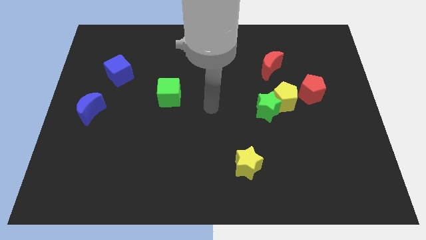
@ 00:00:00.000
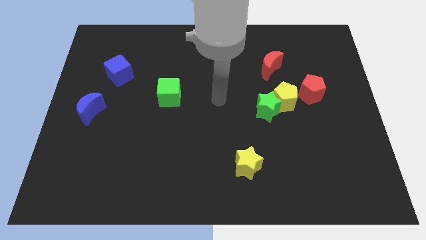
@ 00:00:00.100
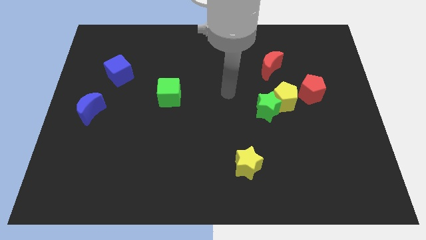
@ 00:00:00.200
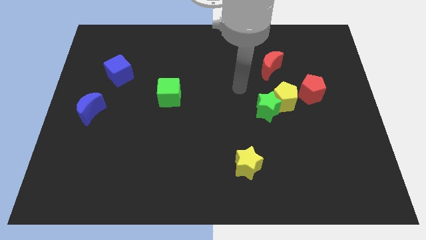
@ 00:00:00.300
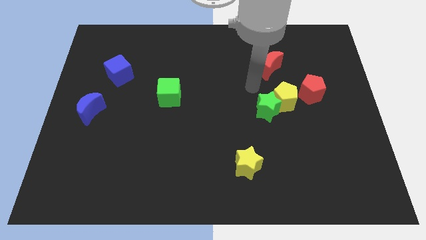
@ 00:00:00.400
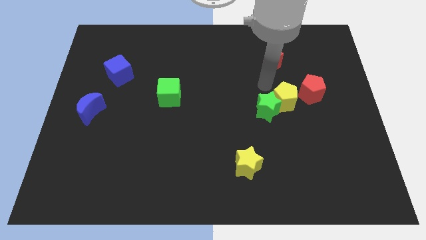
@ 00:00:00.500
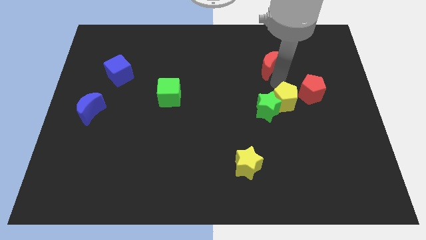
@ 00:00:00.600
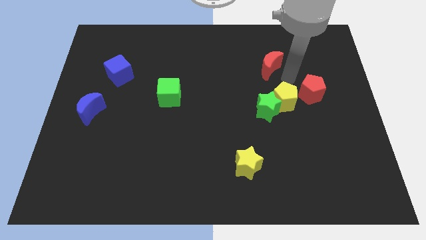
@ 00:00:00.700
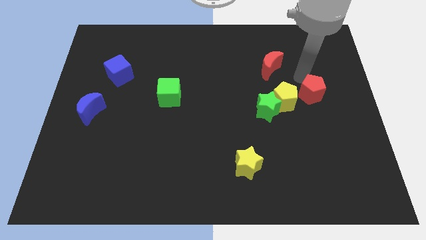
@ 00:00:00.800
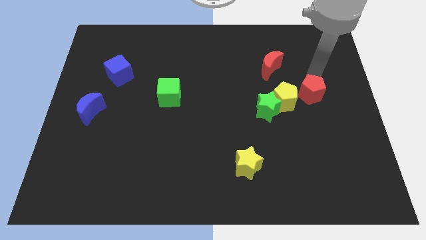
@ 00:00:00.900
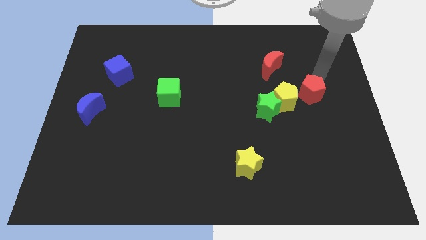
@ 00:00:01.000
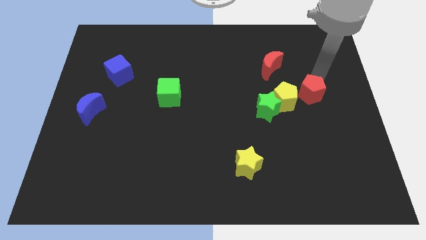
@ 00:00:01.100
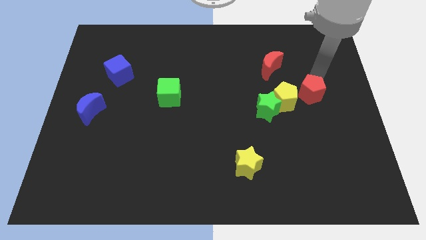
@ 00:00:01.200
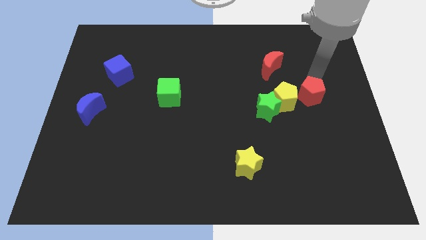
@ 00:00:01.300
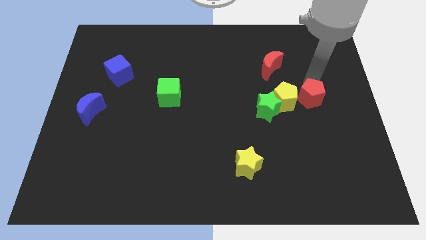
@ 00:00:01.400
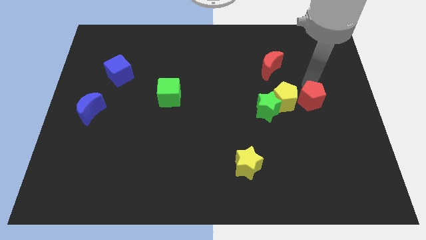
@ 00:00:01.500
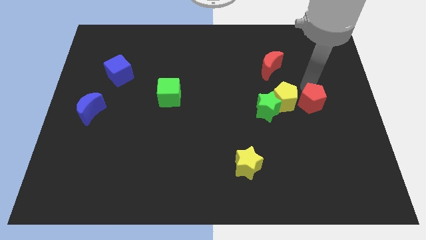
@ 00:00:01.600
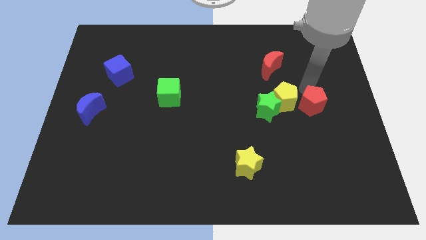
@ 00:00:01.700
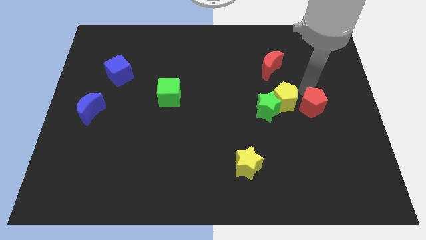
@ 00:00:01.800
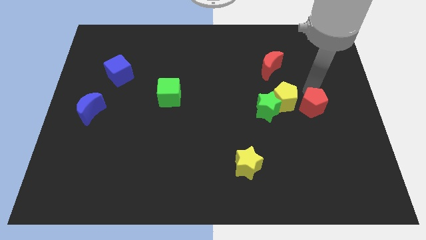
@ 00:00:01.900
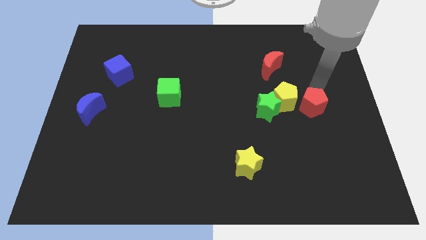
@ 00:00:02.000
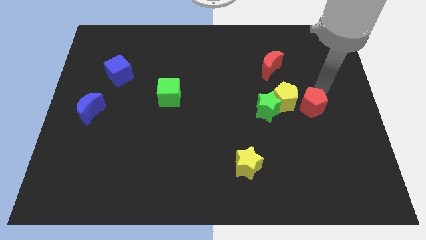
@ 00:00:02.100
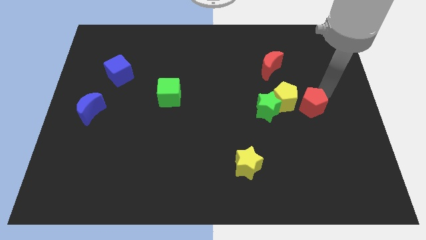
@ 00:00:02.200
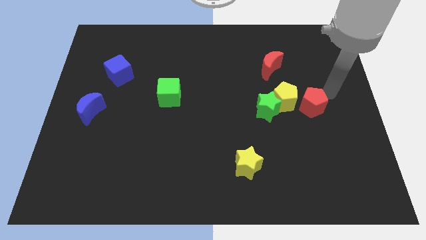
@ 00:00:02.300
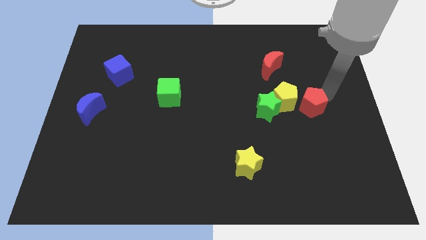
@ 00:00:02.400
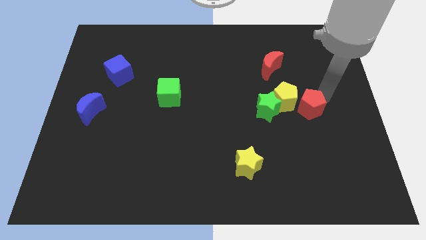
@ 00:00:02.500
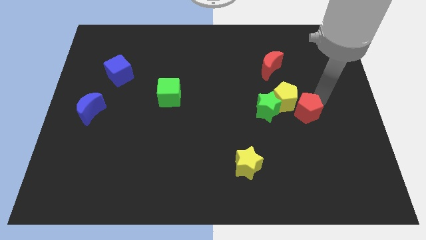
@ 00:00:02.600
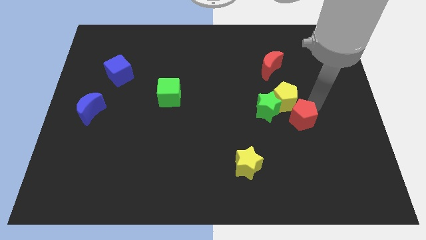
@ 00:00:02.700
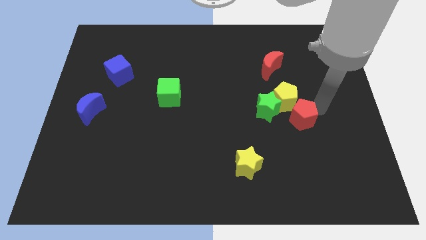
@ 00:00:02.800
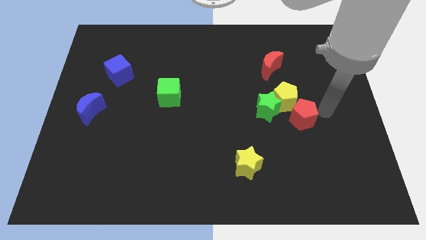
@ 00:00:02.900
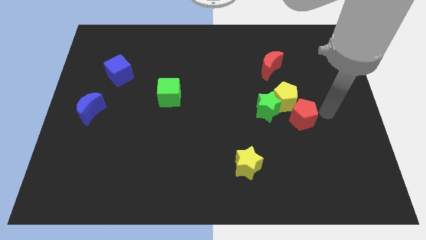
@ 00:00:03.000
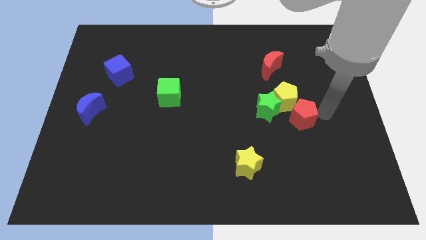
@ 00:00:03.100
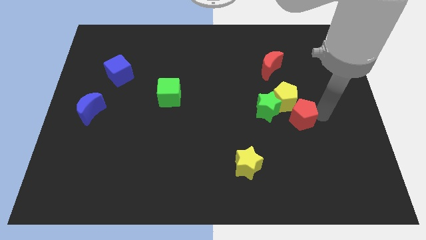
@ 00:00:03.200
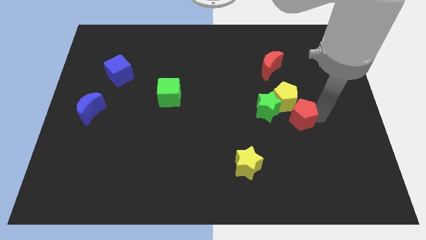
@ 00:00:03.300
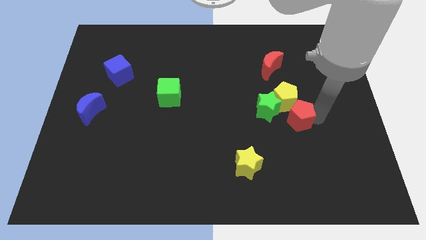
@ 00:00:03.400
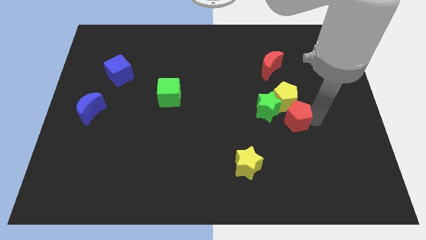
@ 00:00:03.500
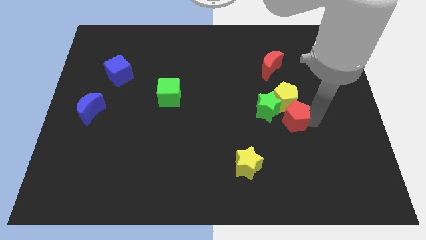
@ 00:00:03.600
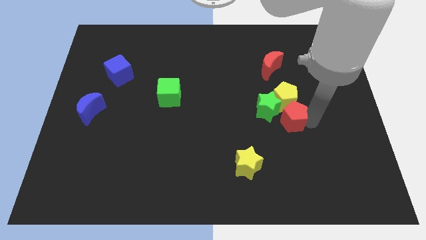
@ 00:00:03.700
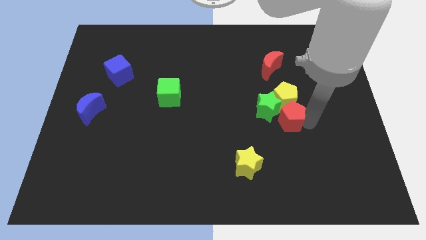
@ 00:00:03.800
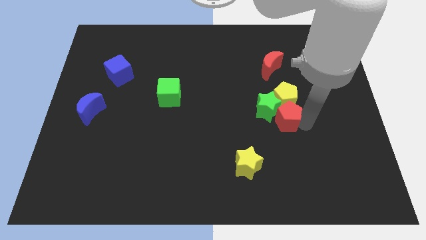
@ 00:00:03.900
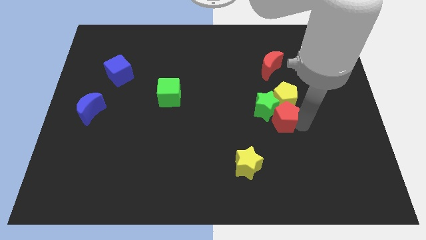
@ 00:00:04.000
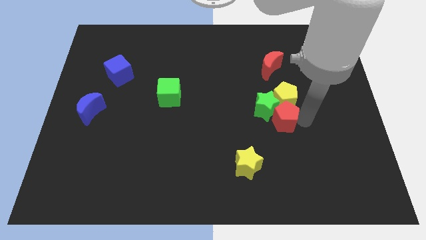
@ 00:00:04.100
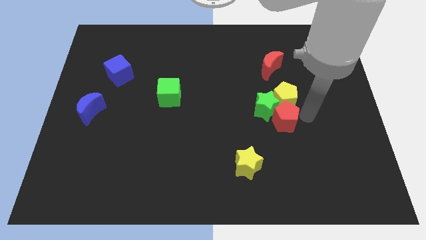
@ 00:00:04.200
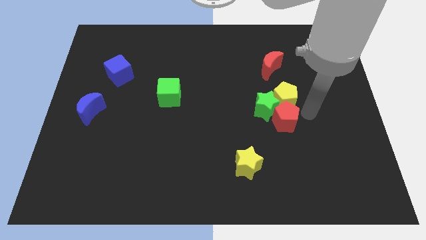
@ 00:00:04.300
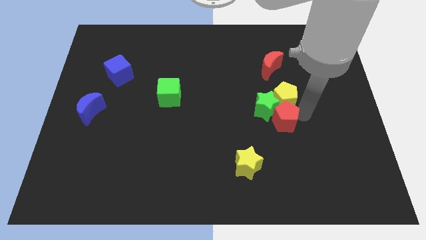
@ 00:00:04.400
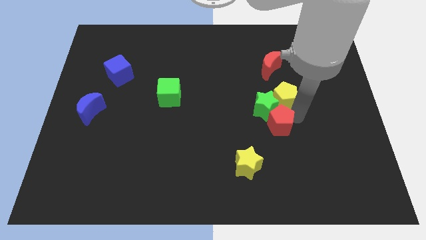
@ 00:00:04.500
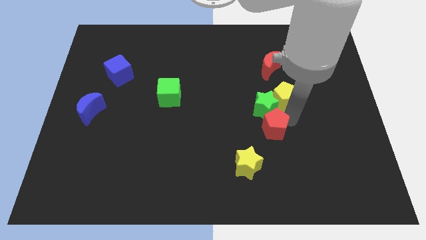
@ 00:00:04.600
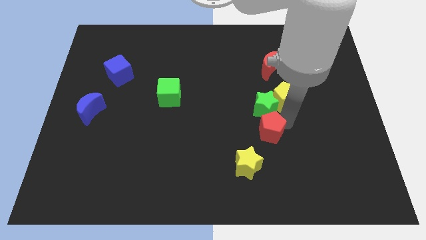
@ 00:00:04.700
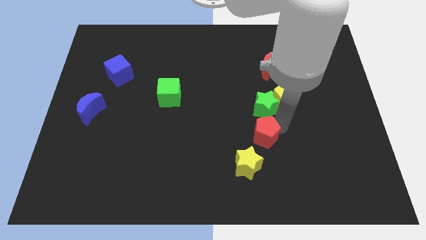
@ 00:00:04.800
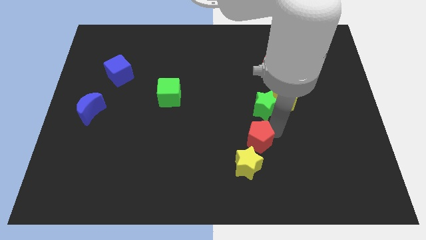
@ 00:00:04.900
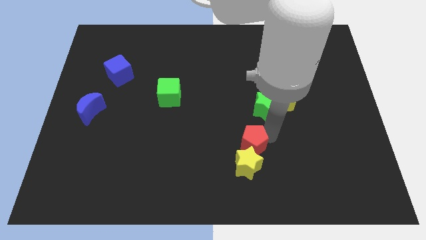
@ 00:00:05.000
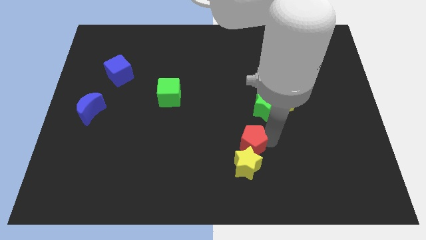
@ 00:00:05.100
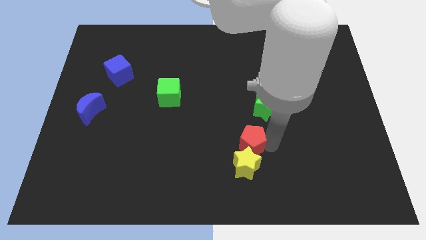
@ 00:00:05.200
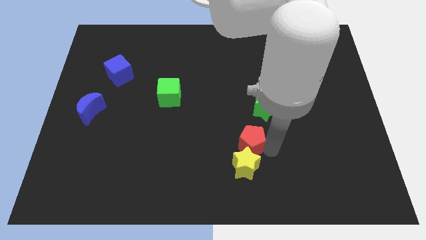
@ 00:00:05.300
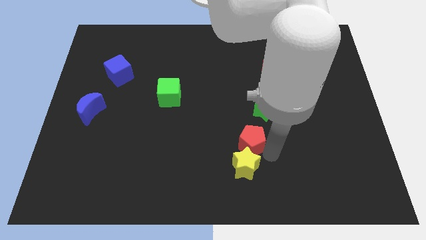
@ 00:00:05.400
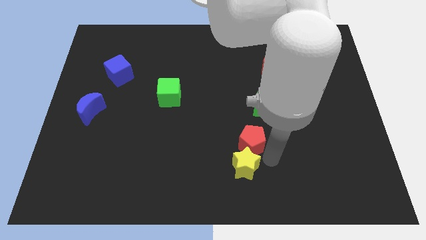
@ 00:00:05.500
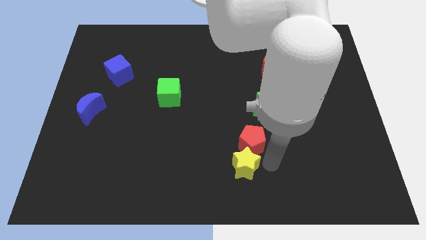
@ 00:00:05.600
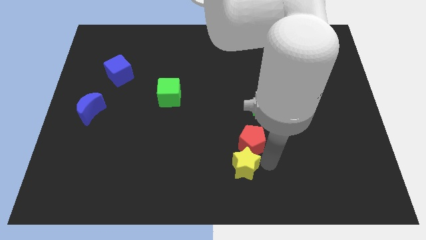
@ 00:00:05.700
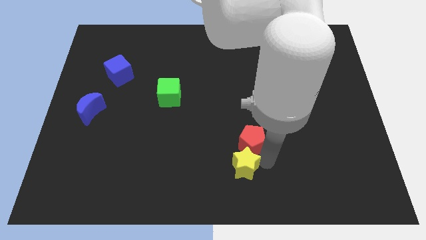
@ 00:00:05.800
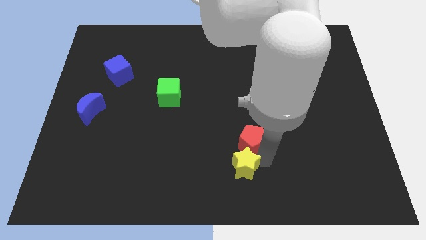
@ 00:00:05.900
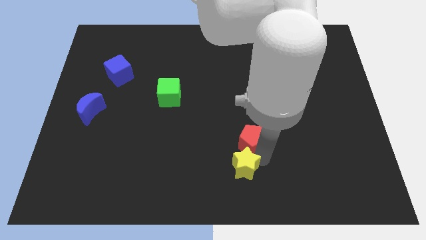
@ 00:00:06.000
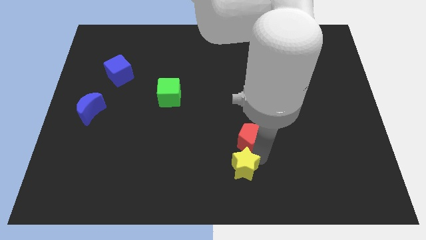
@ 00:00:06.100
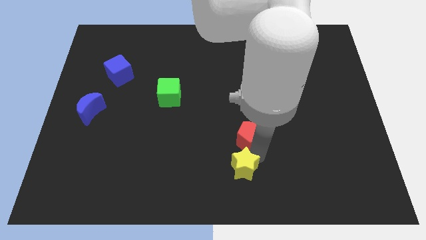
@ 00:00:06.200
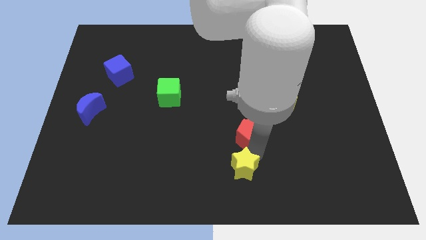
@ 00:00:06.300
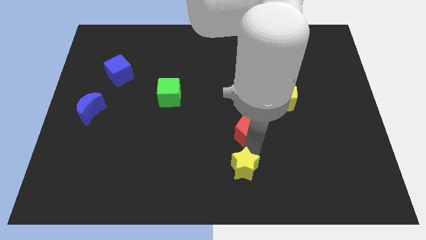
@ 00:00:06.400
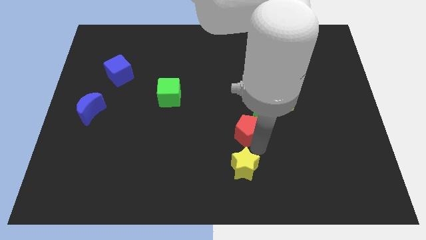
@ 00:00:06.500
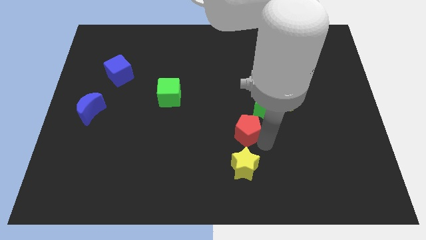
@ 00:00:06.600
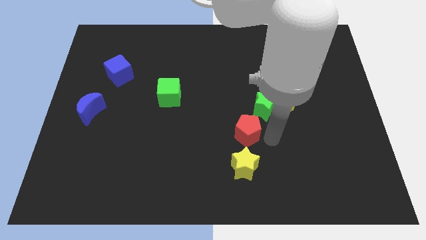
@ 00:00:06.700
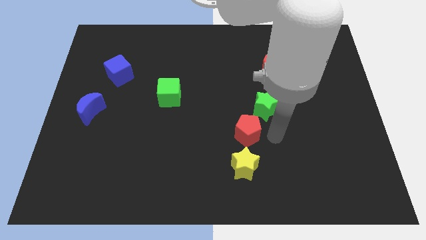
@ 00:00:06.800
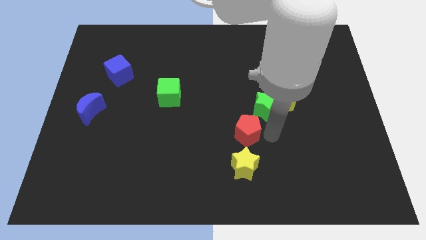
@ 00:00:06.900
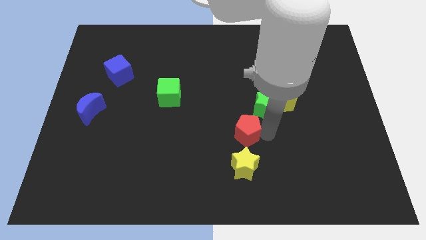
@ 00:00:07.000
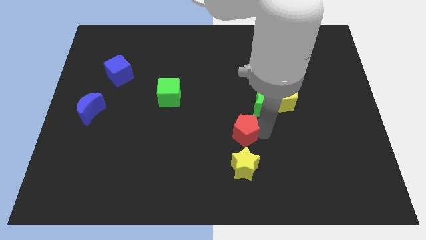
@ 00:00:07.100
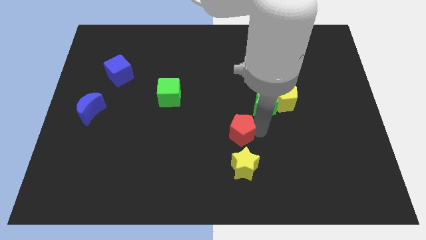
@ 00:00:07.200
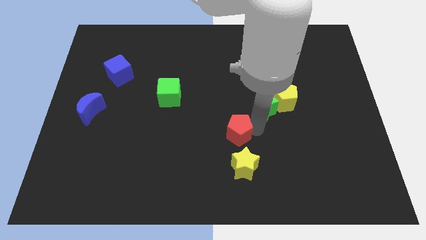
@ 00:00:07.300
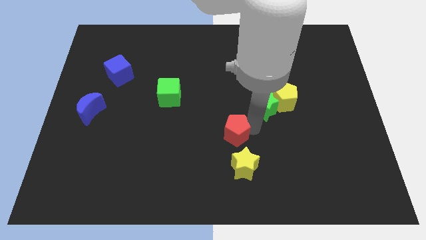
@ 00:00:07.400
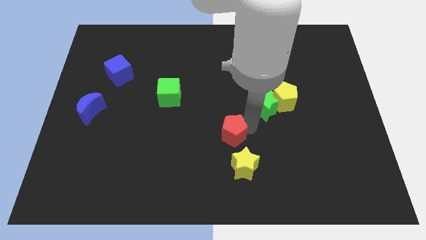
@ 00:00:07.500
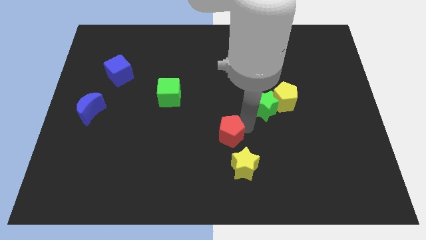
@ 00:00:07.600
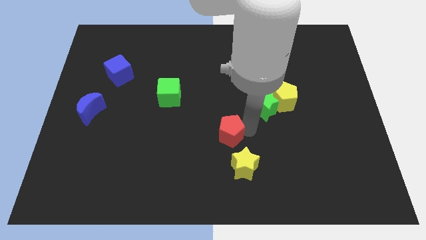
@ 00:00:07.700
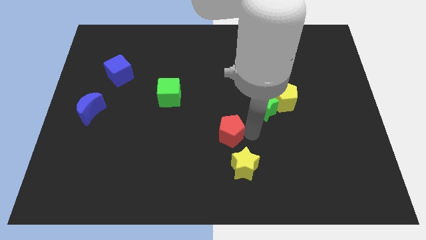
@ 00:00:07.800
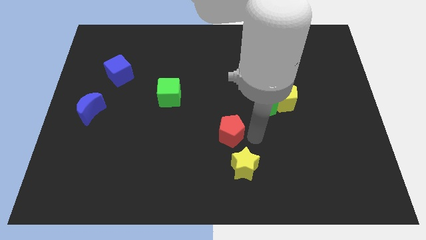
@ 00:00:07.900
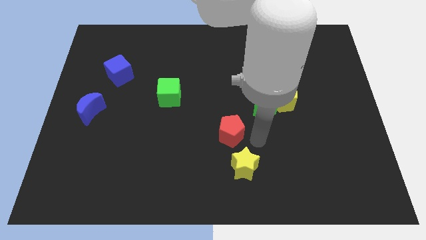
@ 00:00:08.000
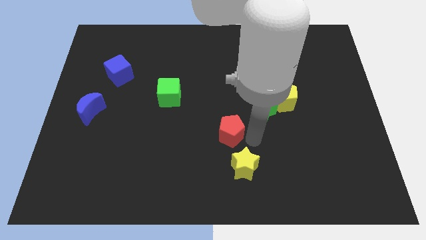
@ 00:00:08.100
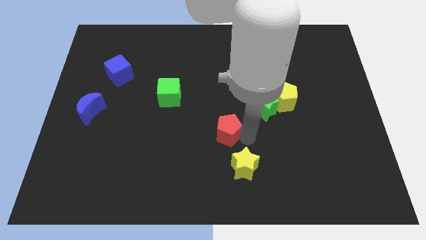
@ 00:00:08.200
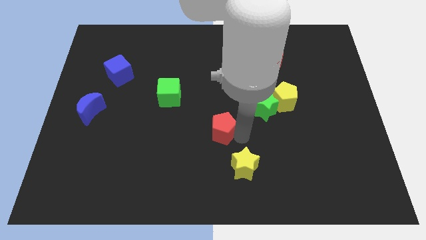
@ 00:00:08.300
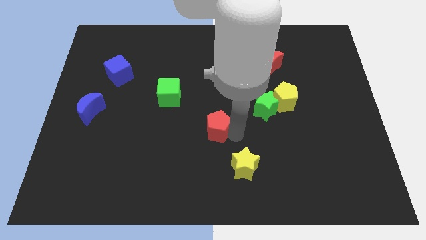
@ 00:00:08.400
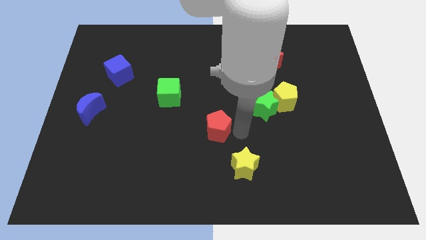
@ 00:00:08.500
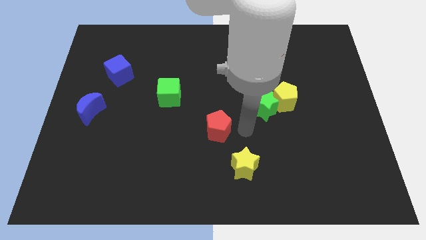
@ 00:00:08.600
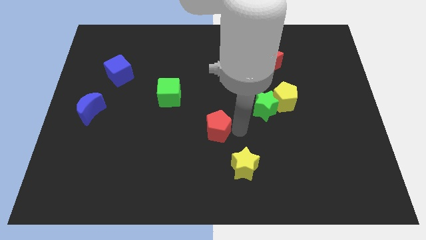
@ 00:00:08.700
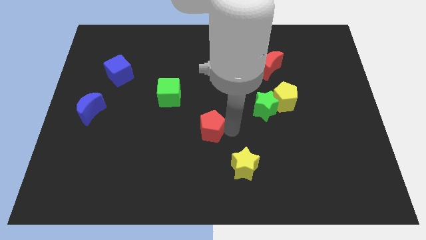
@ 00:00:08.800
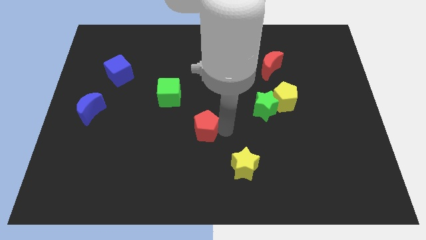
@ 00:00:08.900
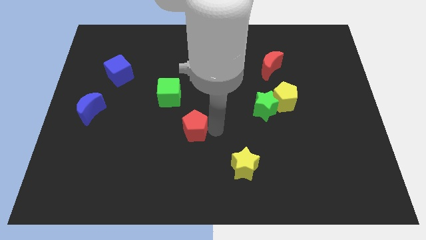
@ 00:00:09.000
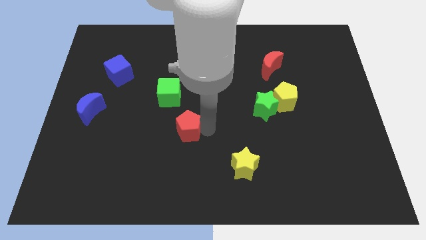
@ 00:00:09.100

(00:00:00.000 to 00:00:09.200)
push the red pentagon to the bottom of the green cube
